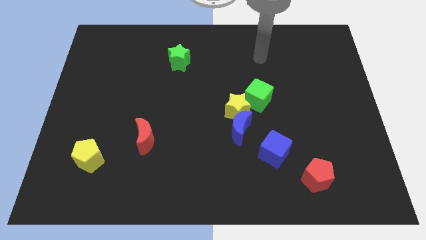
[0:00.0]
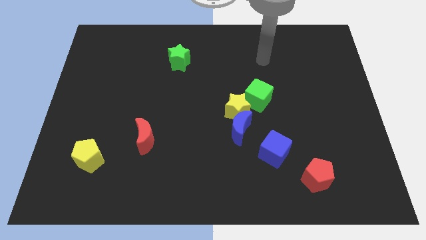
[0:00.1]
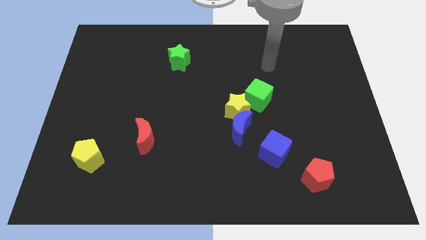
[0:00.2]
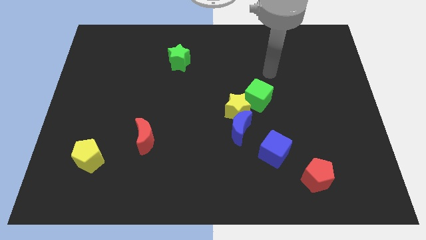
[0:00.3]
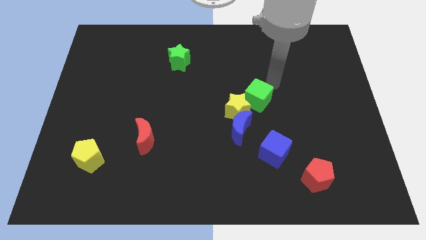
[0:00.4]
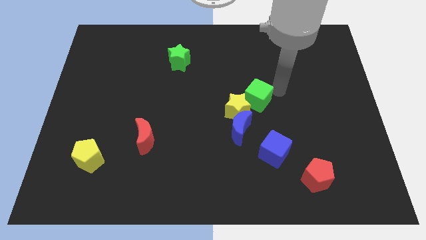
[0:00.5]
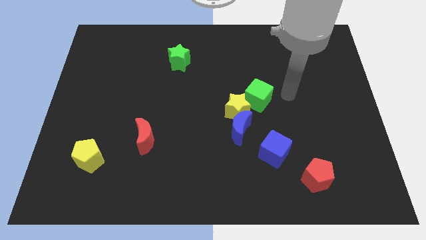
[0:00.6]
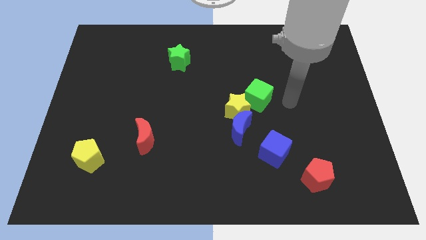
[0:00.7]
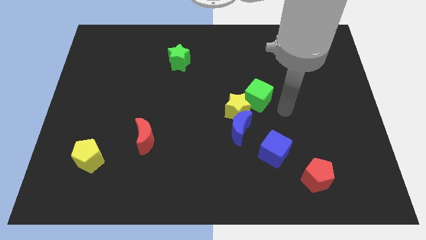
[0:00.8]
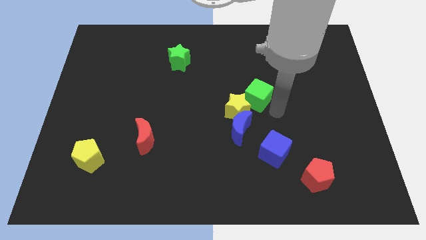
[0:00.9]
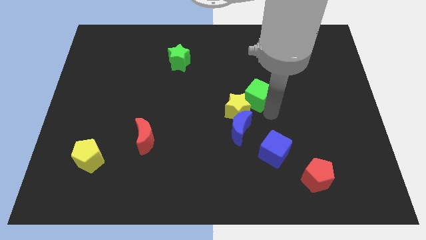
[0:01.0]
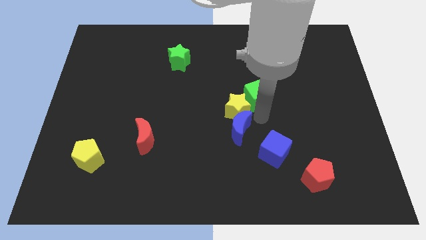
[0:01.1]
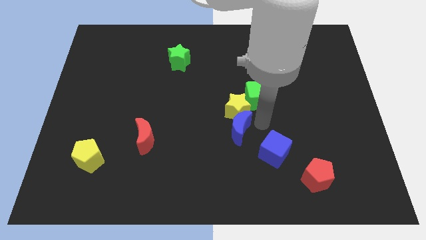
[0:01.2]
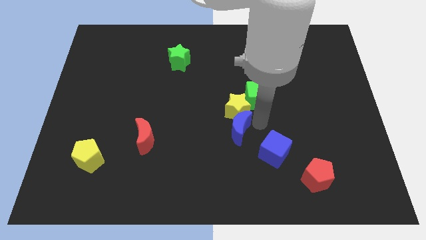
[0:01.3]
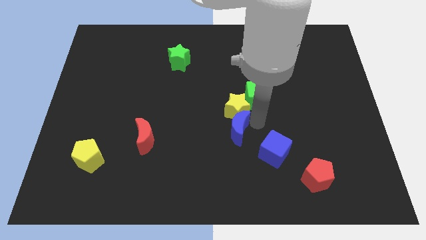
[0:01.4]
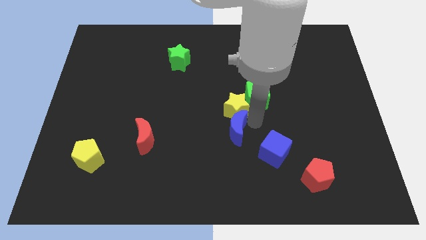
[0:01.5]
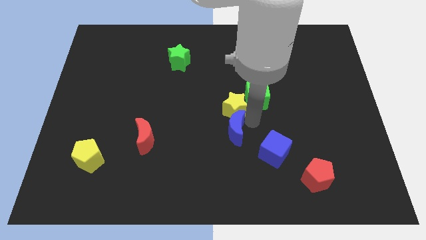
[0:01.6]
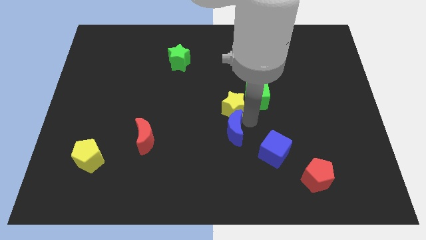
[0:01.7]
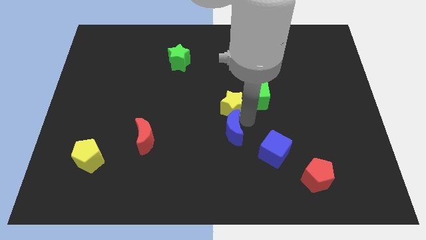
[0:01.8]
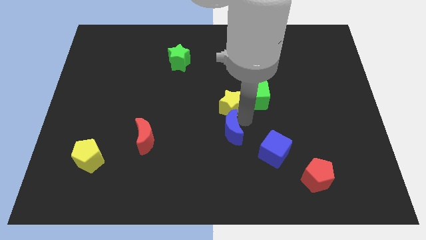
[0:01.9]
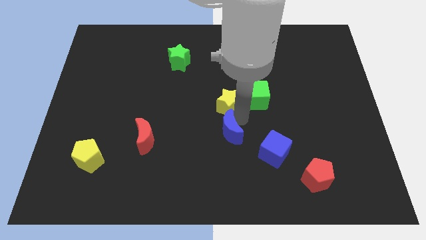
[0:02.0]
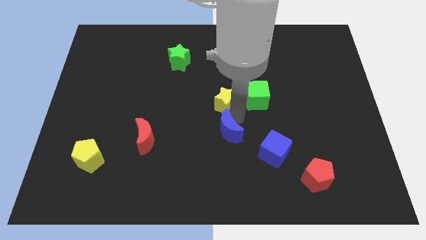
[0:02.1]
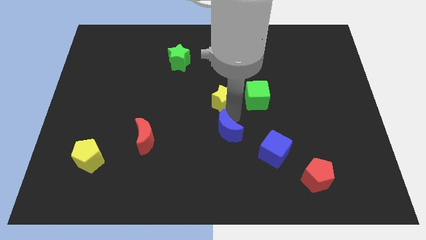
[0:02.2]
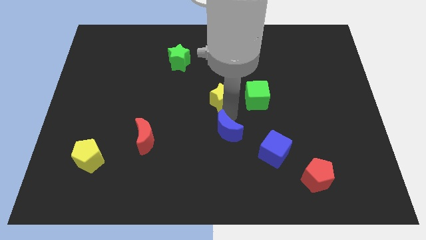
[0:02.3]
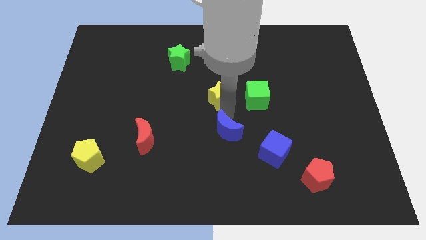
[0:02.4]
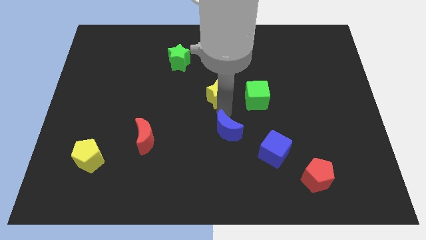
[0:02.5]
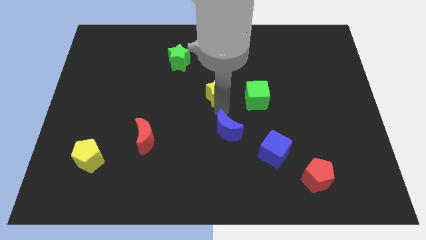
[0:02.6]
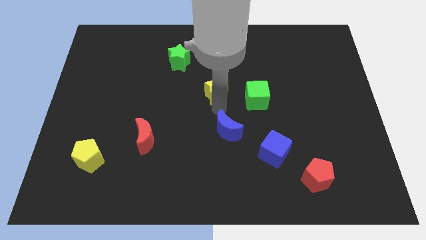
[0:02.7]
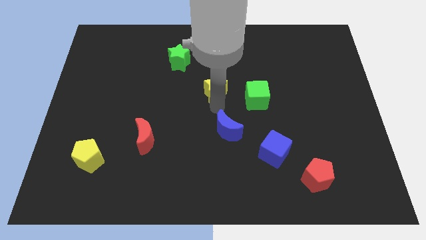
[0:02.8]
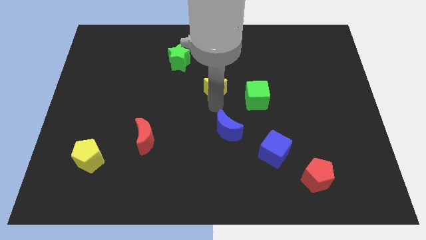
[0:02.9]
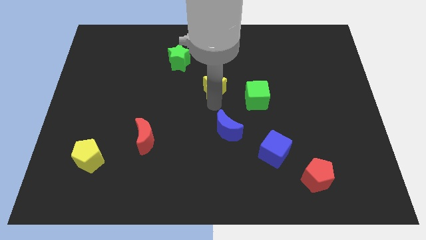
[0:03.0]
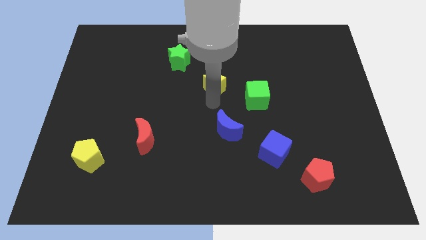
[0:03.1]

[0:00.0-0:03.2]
move the yellow star away from the blue moon and green cube

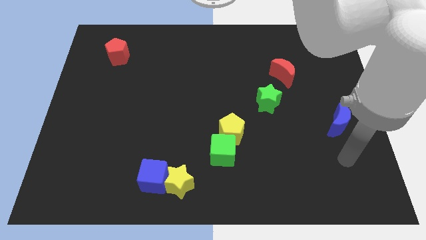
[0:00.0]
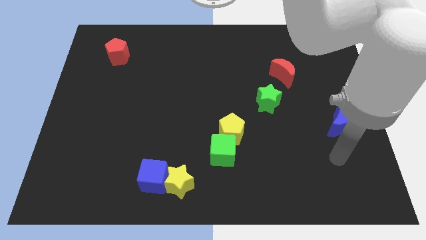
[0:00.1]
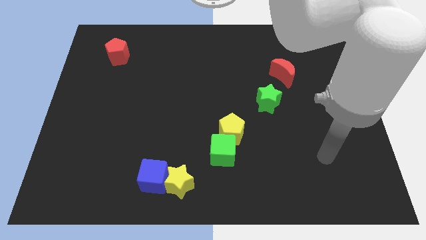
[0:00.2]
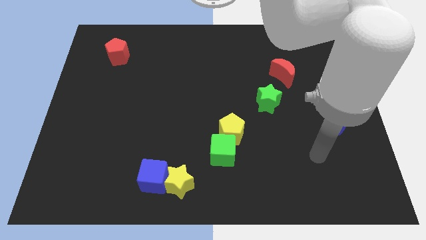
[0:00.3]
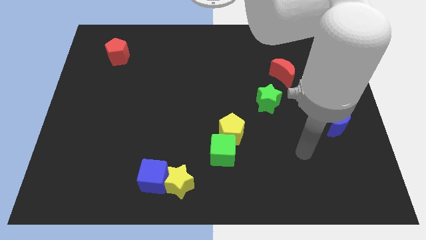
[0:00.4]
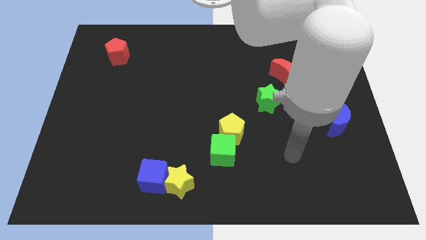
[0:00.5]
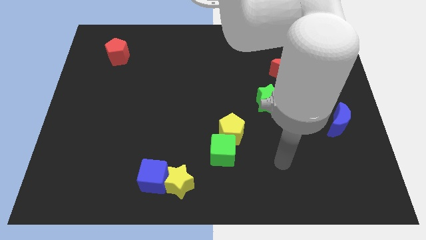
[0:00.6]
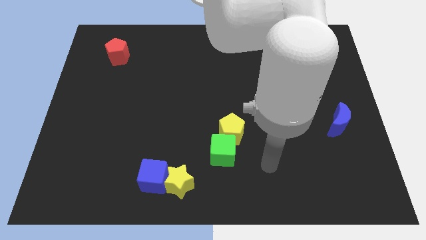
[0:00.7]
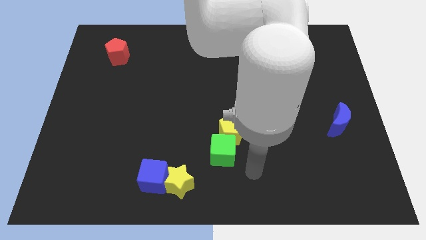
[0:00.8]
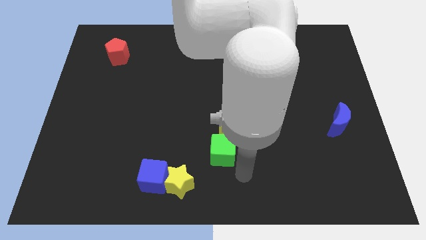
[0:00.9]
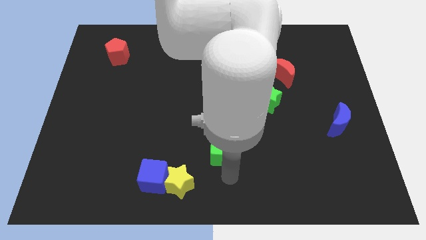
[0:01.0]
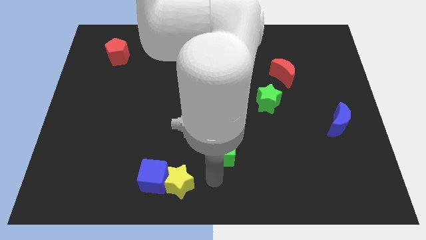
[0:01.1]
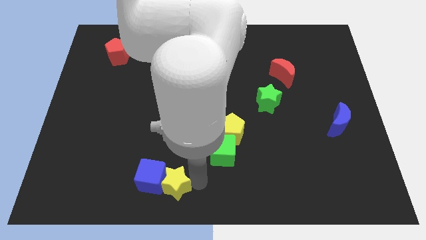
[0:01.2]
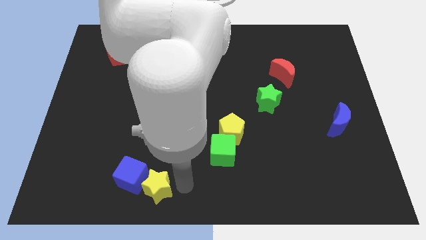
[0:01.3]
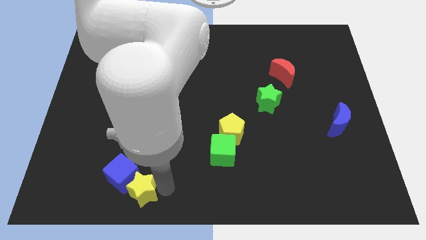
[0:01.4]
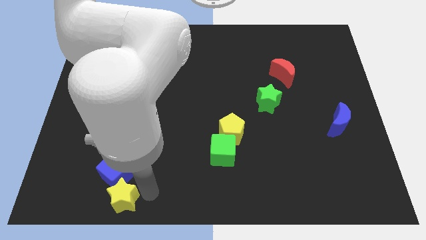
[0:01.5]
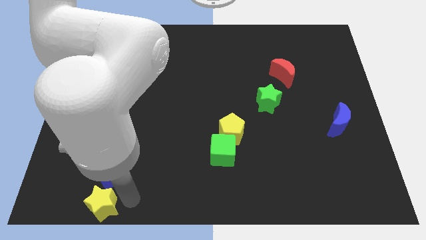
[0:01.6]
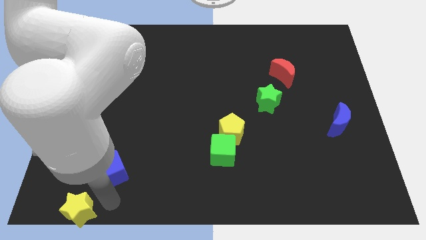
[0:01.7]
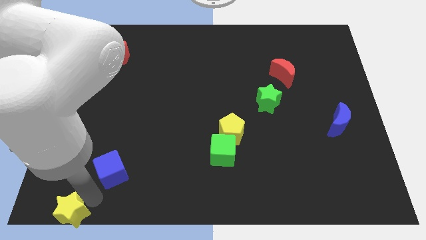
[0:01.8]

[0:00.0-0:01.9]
separate the blue cube from the yellow star

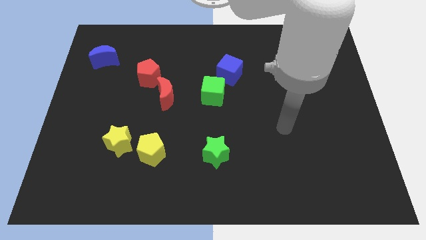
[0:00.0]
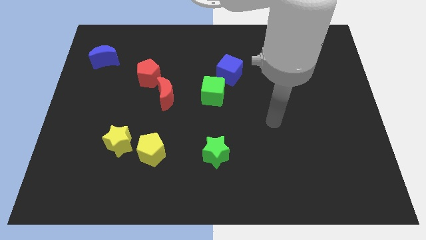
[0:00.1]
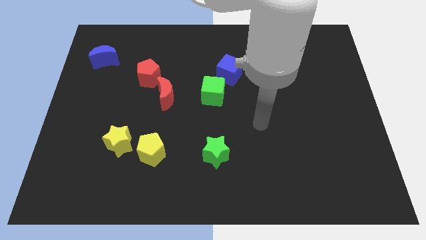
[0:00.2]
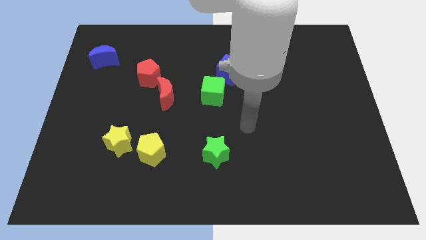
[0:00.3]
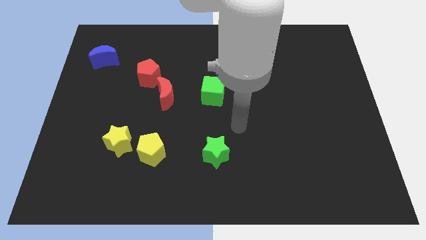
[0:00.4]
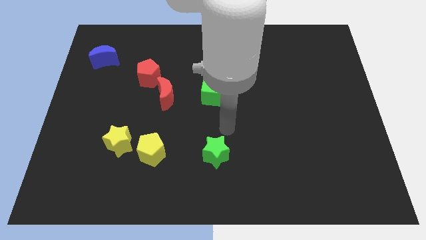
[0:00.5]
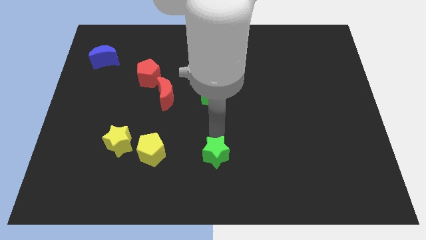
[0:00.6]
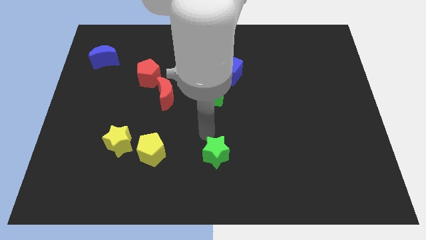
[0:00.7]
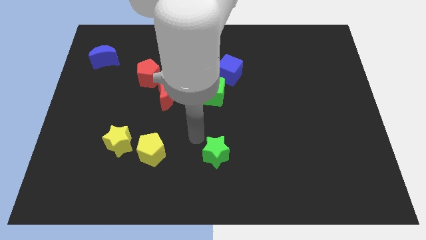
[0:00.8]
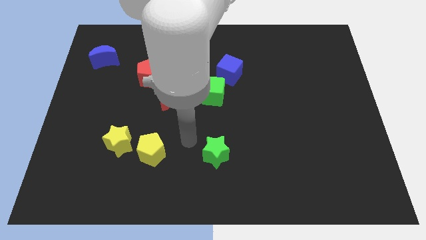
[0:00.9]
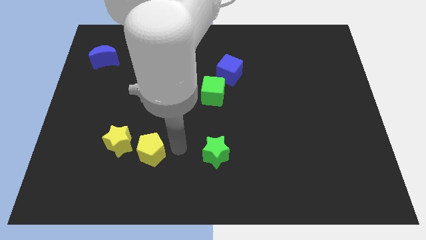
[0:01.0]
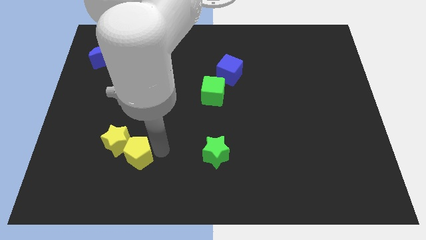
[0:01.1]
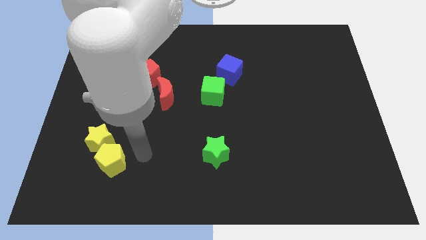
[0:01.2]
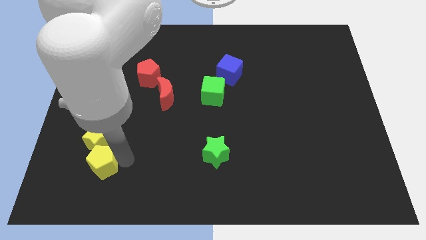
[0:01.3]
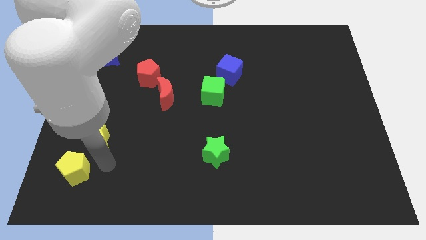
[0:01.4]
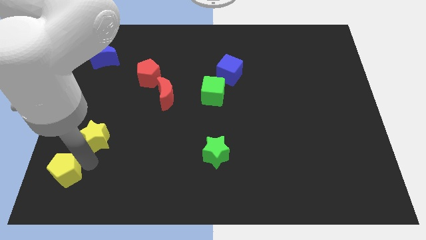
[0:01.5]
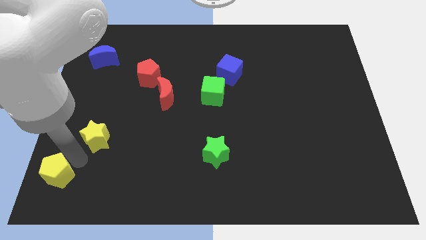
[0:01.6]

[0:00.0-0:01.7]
move the yellow star away from the yellow pentagon

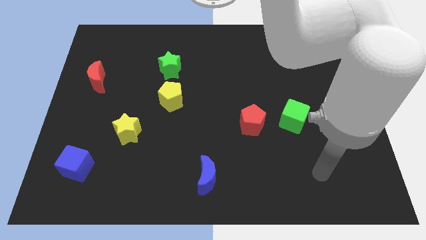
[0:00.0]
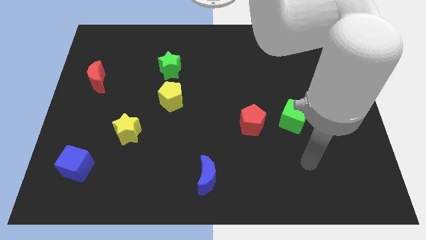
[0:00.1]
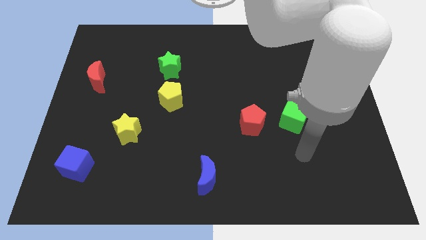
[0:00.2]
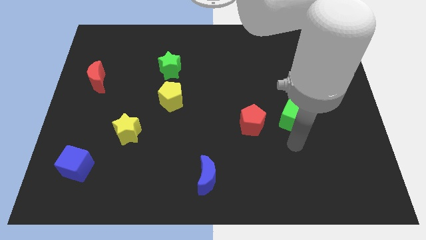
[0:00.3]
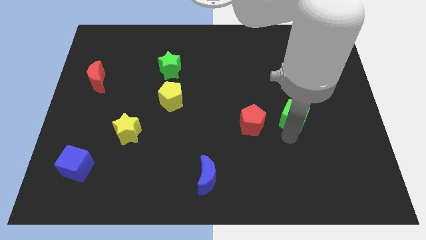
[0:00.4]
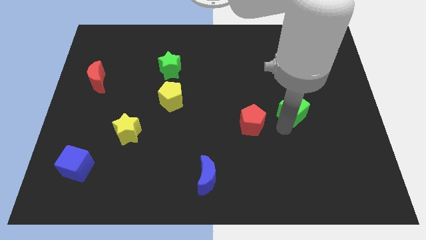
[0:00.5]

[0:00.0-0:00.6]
move the red pentagon away from the green cube

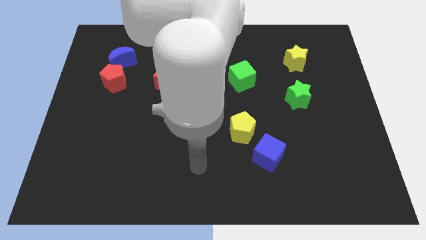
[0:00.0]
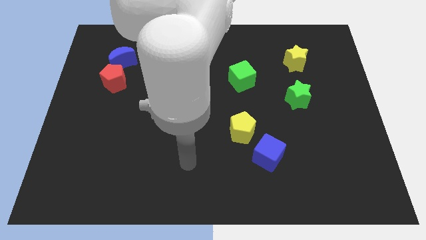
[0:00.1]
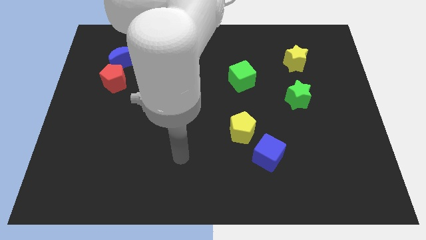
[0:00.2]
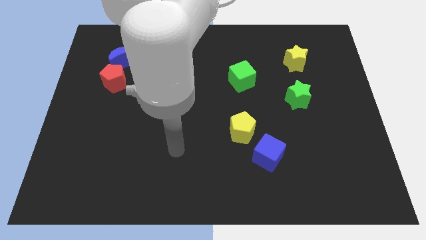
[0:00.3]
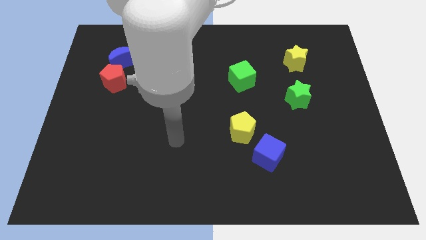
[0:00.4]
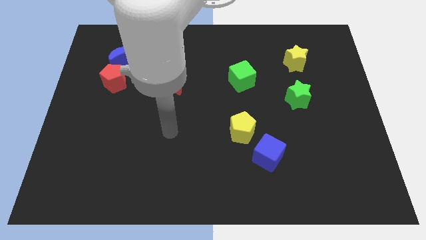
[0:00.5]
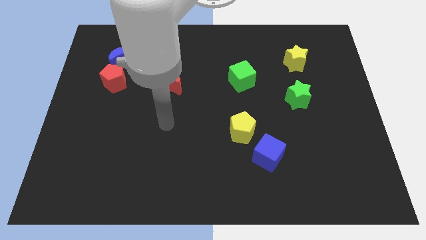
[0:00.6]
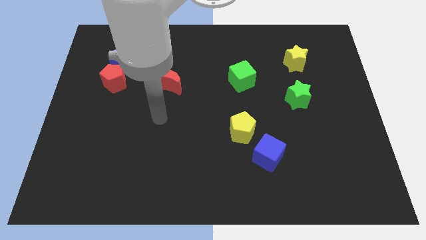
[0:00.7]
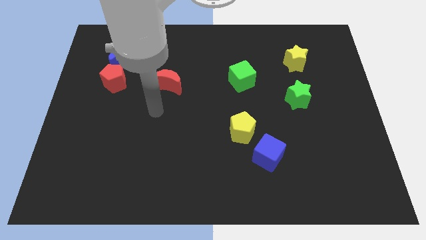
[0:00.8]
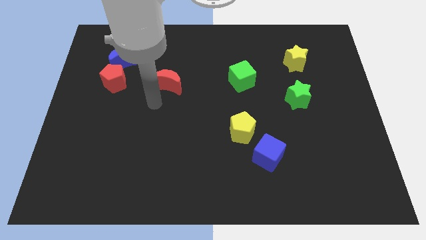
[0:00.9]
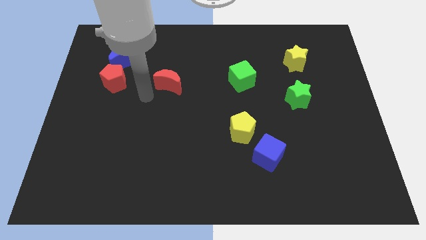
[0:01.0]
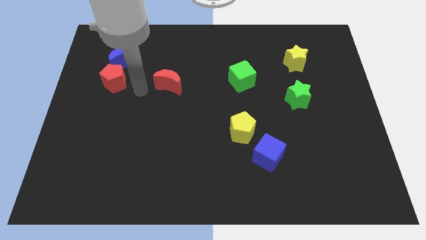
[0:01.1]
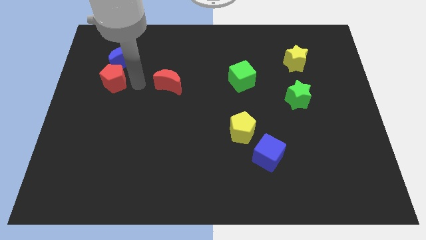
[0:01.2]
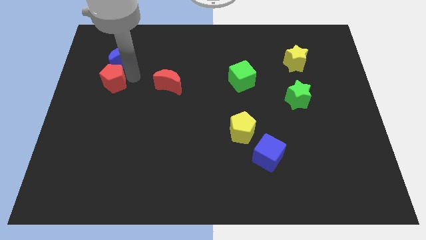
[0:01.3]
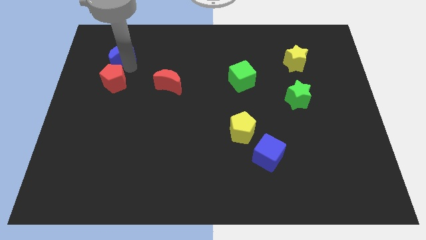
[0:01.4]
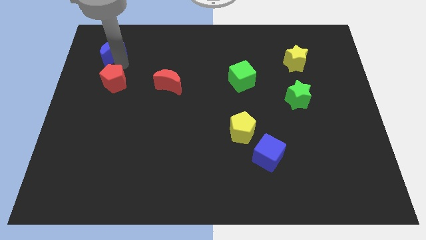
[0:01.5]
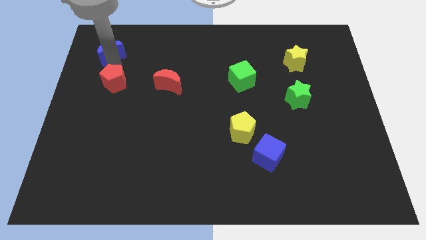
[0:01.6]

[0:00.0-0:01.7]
separate the red pentagon from the blue moon

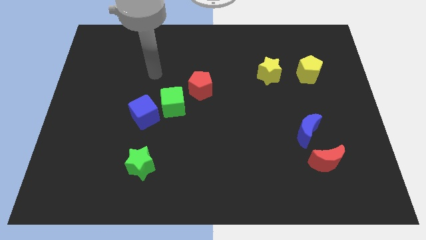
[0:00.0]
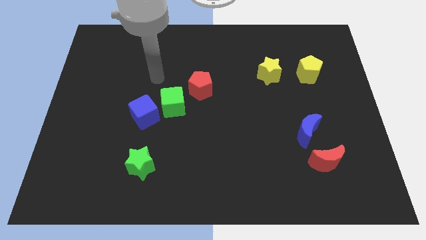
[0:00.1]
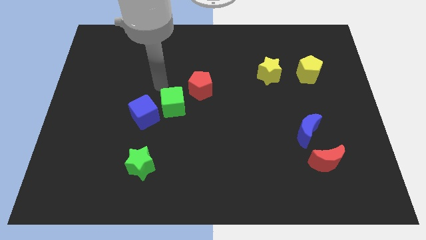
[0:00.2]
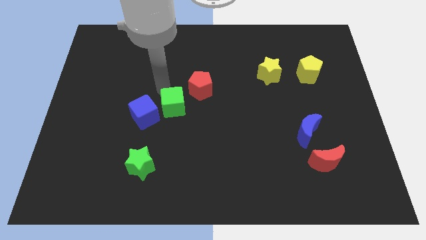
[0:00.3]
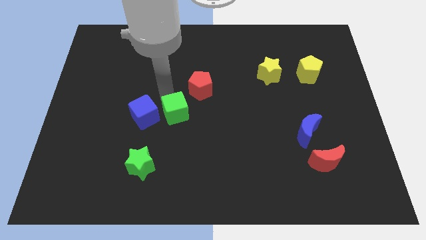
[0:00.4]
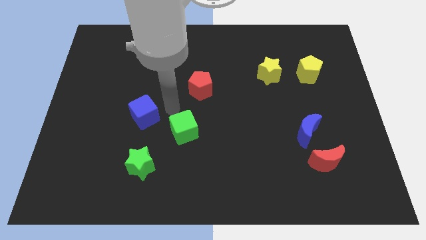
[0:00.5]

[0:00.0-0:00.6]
move the blue cube away from the green cube
